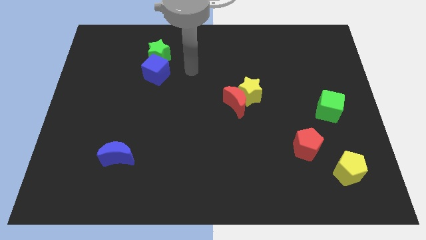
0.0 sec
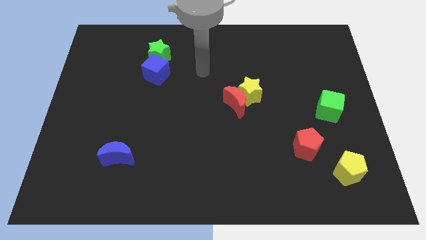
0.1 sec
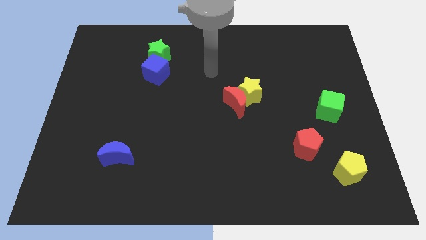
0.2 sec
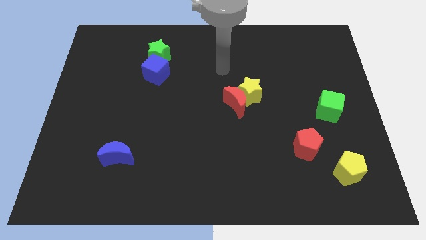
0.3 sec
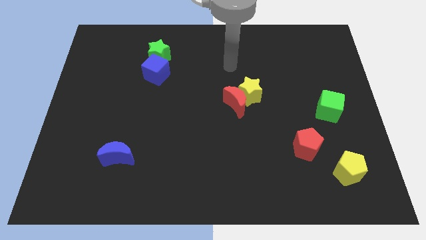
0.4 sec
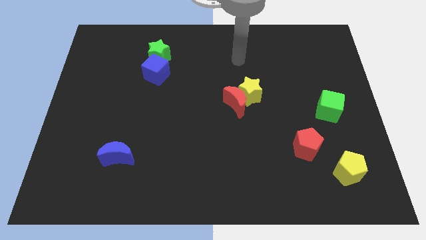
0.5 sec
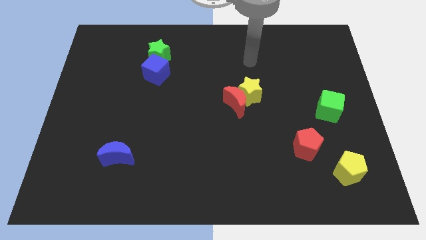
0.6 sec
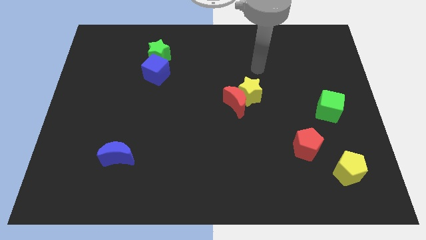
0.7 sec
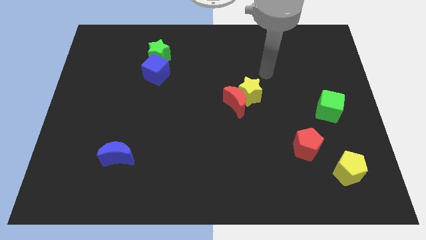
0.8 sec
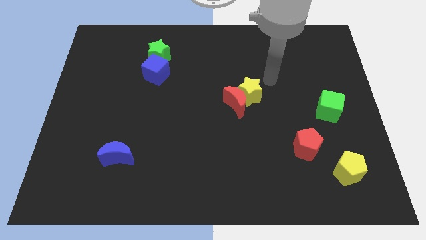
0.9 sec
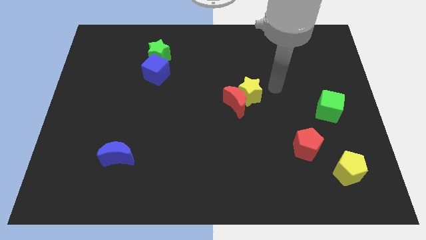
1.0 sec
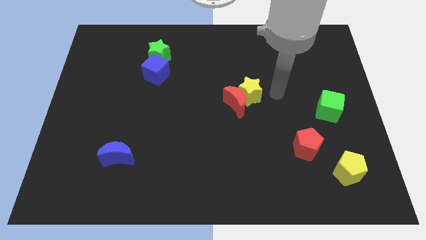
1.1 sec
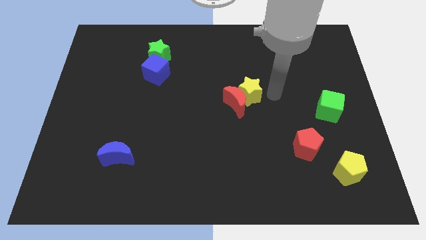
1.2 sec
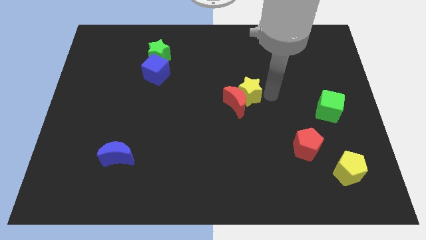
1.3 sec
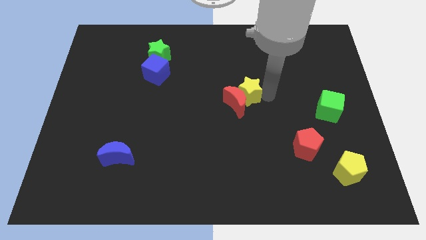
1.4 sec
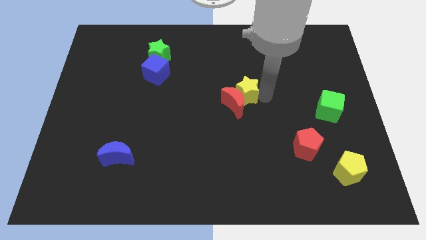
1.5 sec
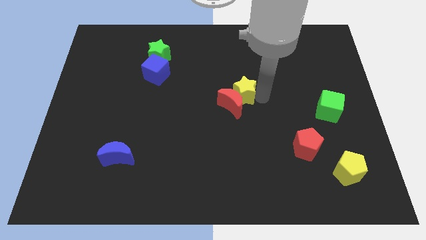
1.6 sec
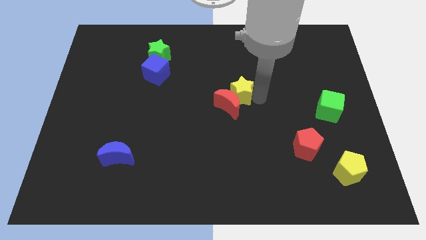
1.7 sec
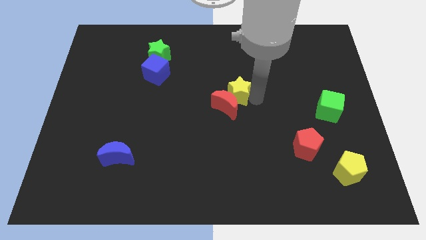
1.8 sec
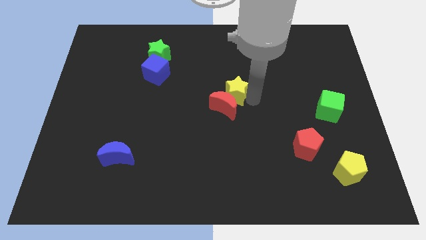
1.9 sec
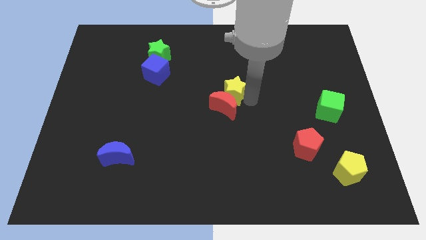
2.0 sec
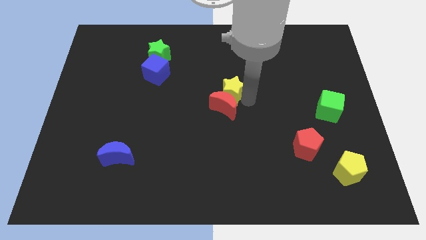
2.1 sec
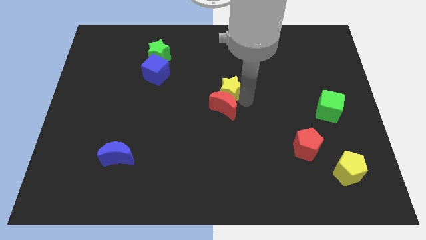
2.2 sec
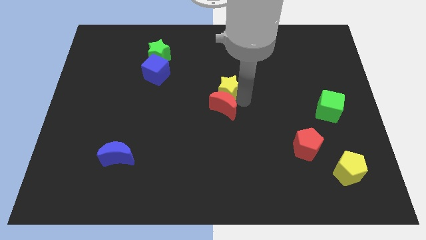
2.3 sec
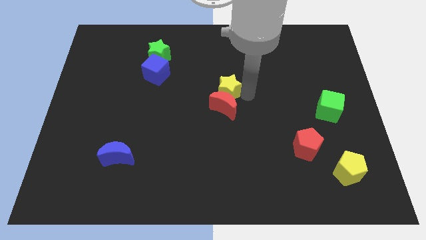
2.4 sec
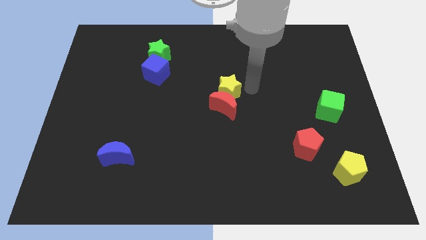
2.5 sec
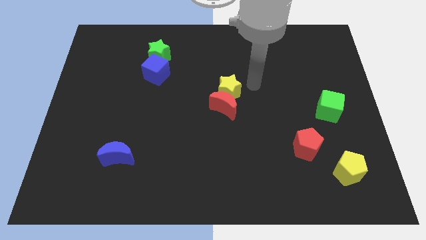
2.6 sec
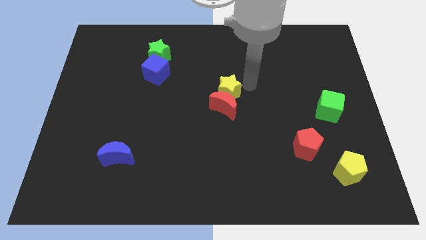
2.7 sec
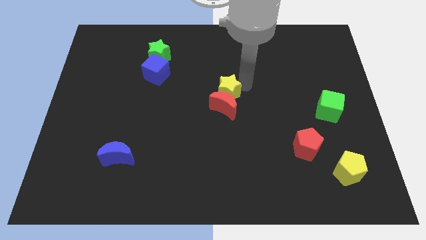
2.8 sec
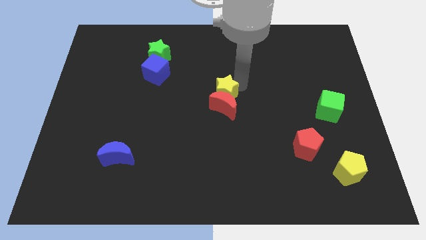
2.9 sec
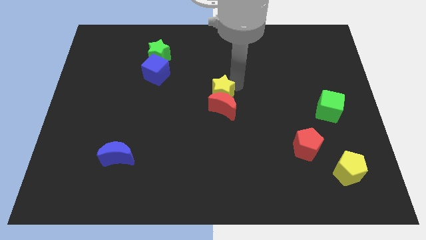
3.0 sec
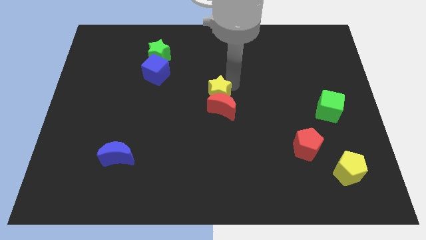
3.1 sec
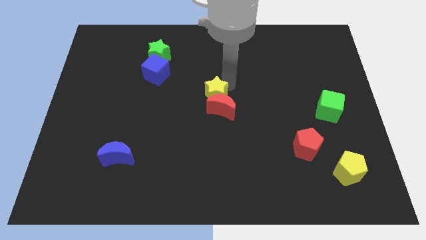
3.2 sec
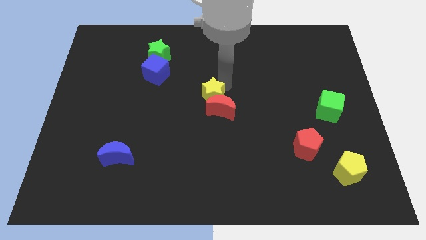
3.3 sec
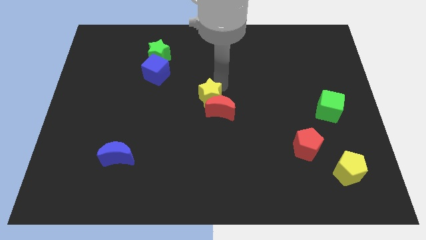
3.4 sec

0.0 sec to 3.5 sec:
slide the yellow star to the left of the red moon

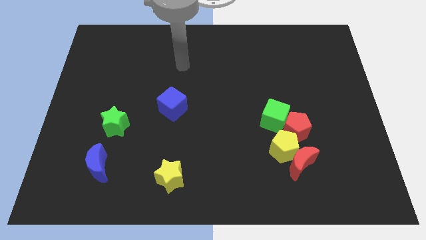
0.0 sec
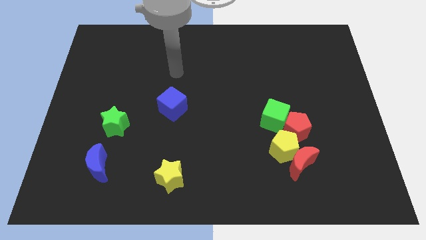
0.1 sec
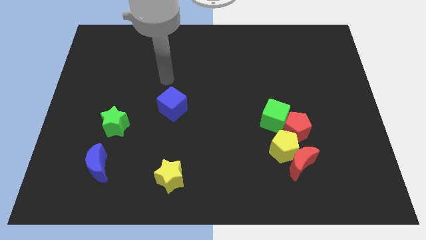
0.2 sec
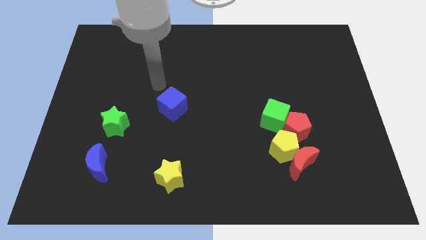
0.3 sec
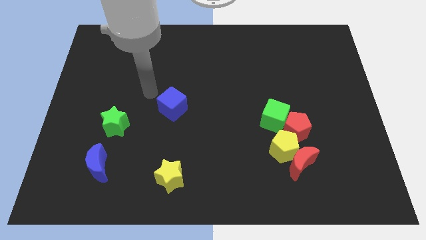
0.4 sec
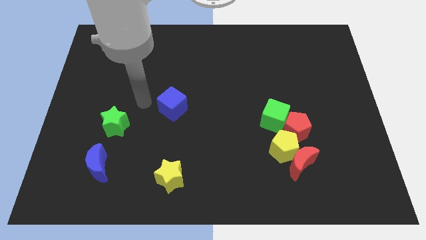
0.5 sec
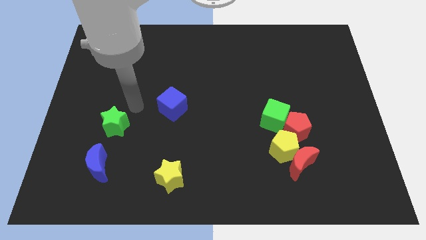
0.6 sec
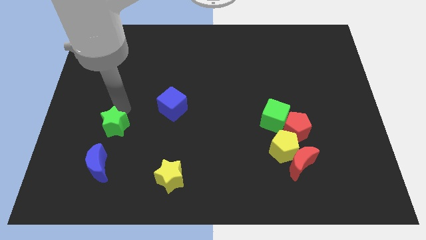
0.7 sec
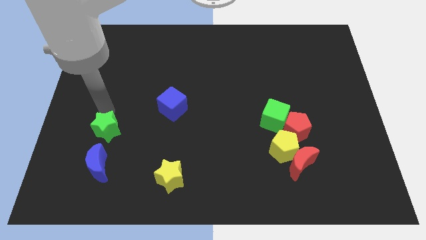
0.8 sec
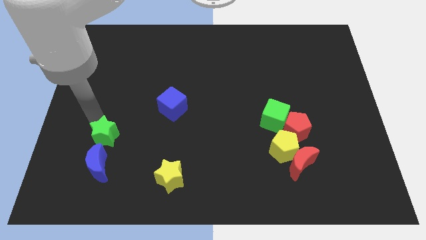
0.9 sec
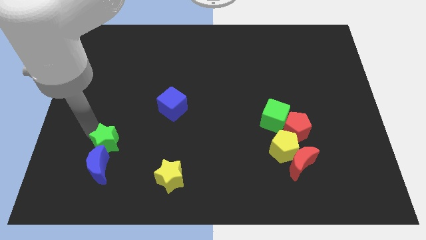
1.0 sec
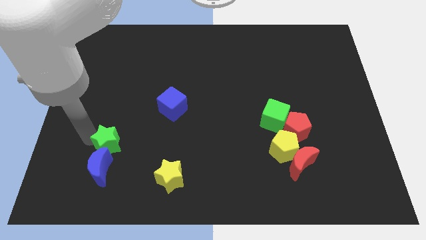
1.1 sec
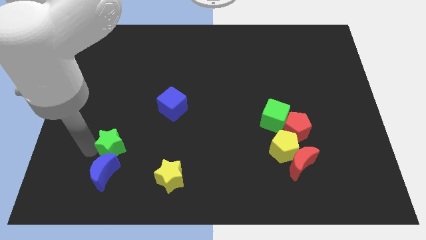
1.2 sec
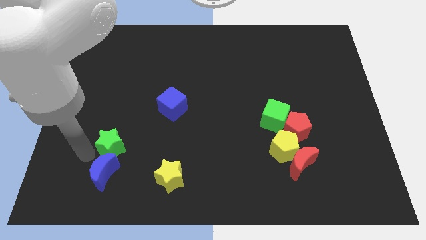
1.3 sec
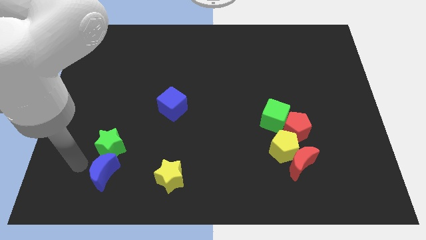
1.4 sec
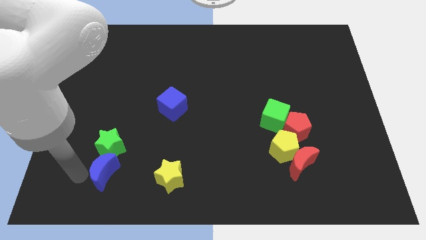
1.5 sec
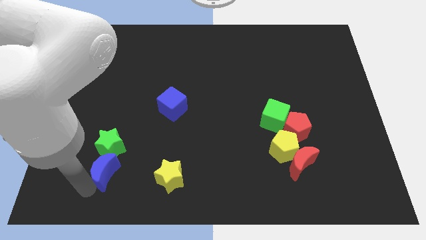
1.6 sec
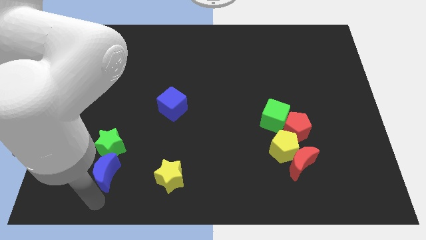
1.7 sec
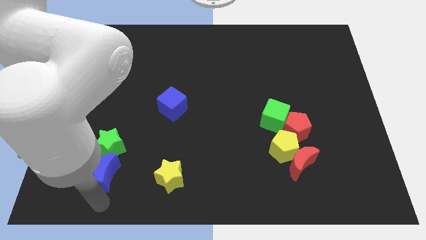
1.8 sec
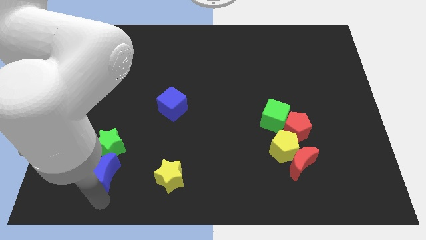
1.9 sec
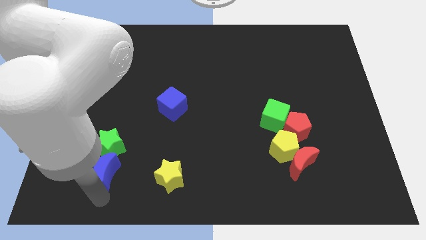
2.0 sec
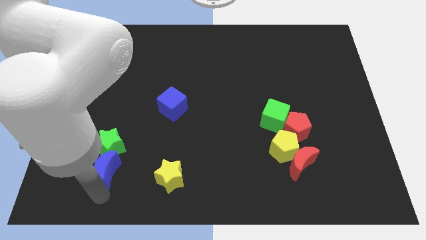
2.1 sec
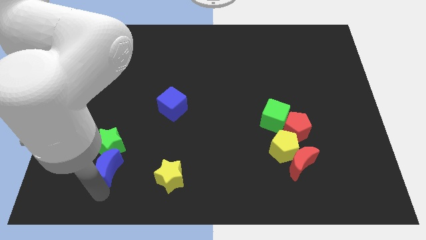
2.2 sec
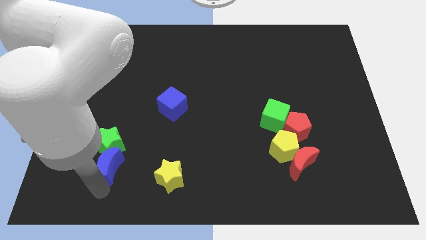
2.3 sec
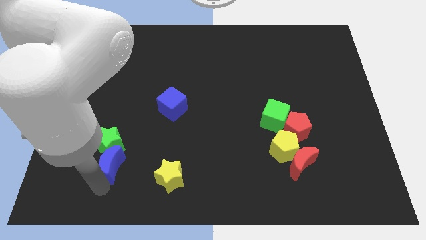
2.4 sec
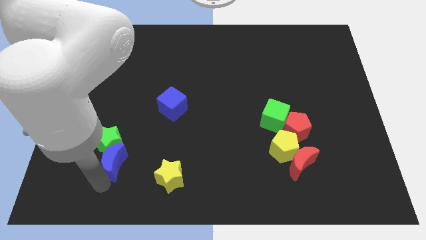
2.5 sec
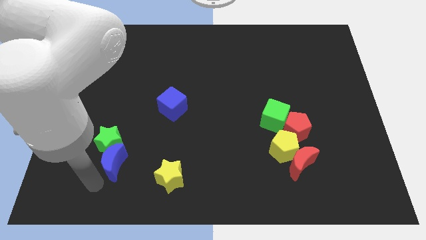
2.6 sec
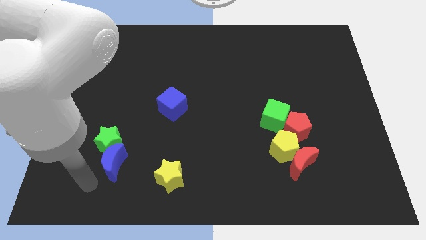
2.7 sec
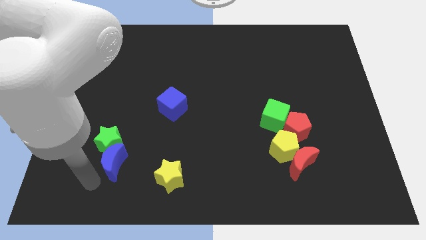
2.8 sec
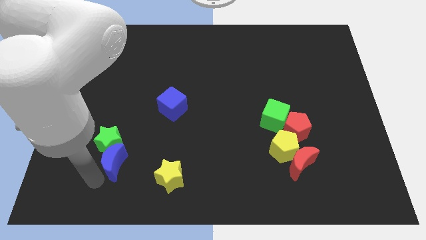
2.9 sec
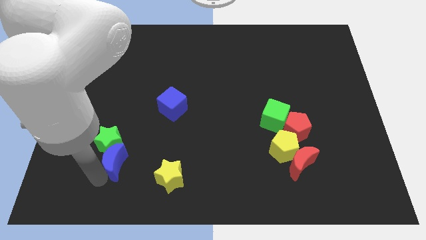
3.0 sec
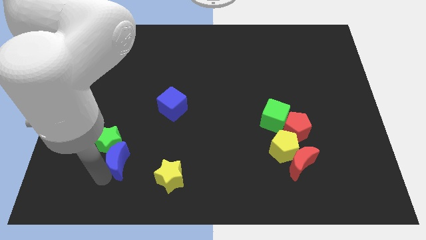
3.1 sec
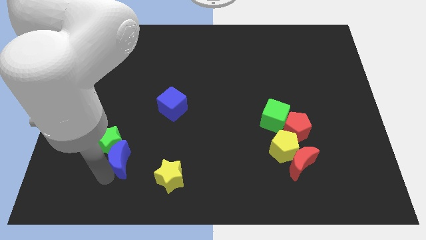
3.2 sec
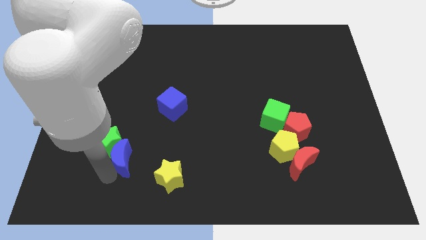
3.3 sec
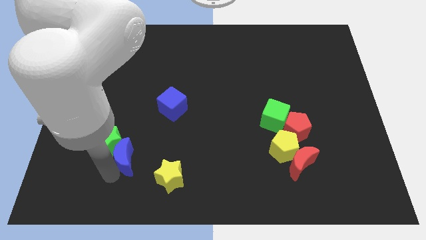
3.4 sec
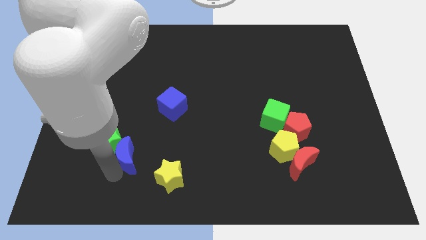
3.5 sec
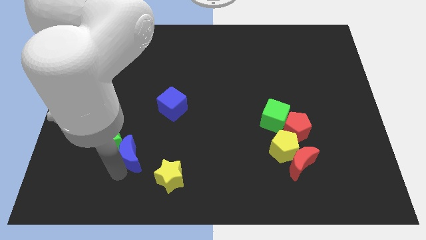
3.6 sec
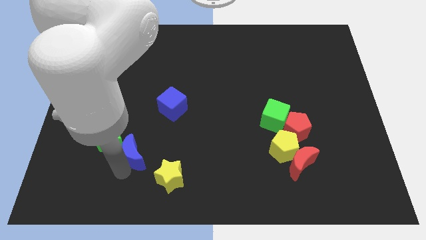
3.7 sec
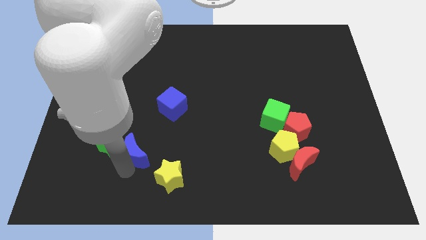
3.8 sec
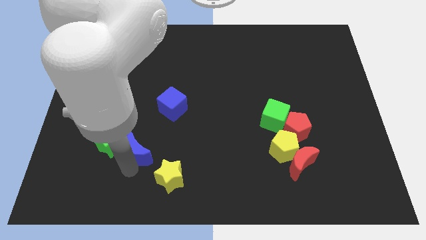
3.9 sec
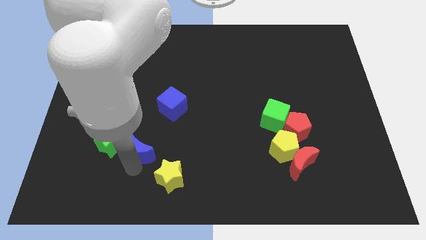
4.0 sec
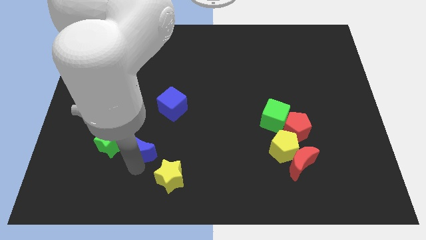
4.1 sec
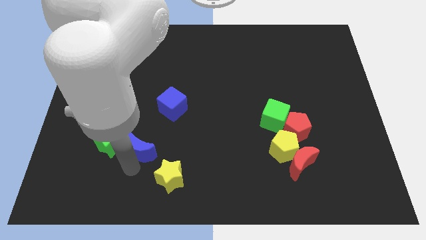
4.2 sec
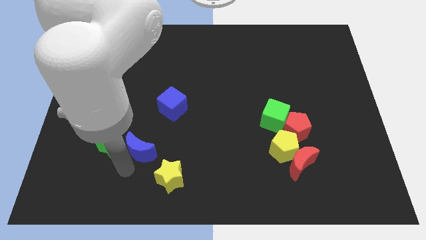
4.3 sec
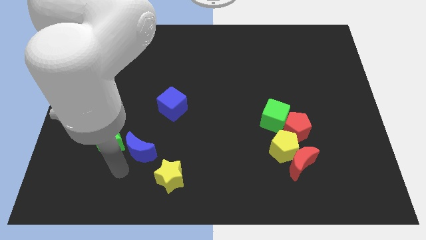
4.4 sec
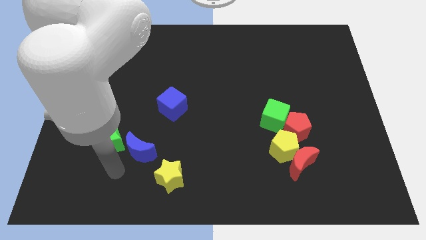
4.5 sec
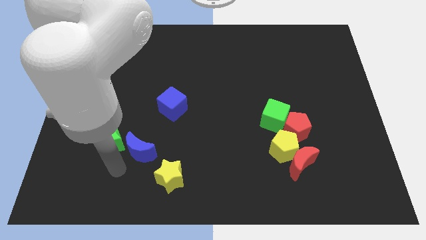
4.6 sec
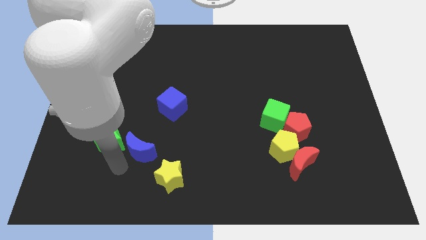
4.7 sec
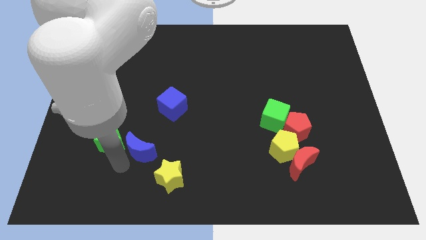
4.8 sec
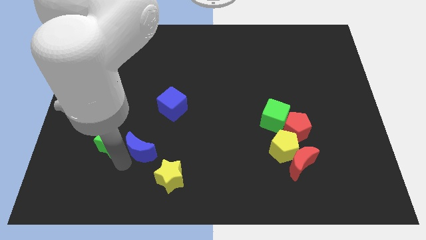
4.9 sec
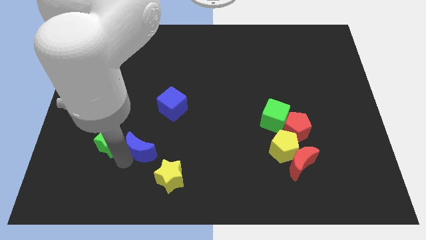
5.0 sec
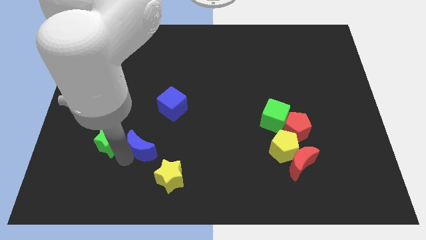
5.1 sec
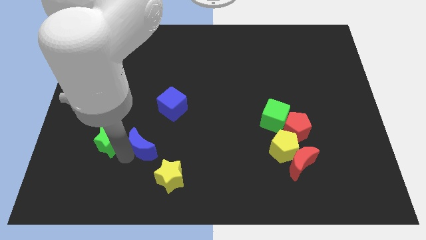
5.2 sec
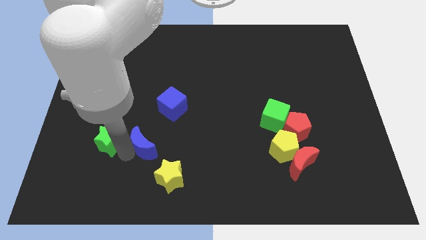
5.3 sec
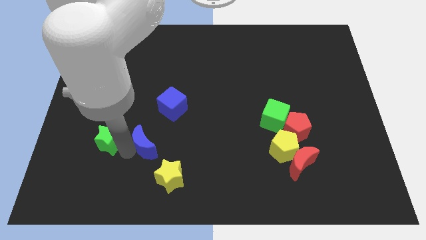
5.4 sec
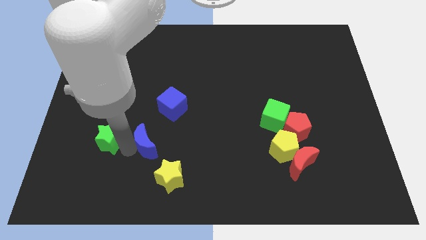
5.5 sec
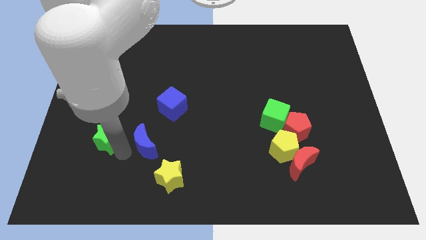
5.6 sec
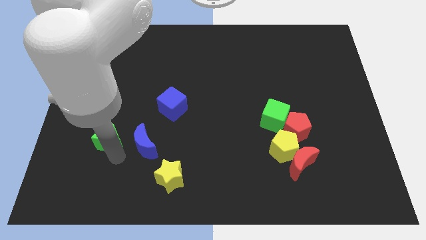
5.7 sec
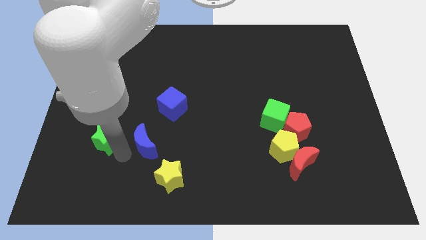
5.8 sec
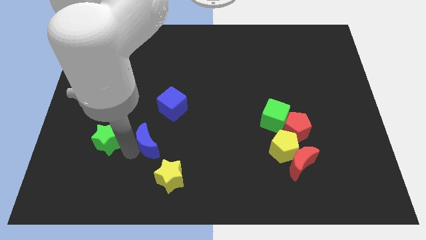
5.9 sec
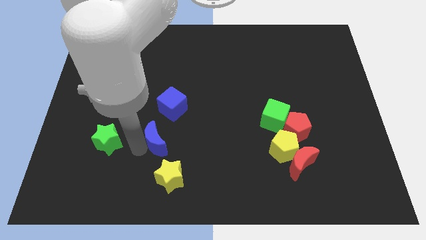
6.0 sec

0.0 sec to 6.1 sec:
move the blue moon above the yellow star
